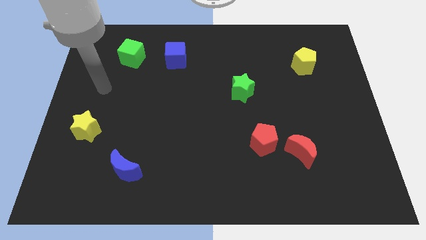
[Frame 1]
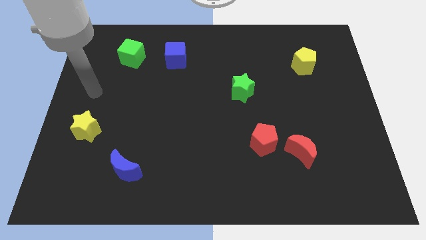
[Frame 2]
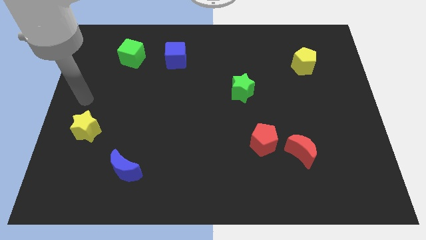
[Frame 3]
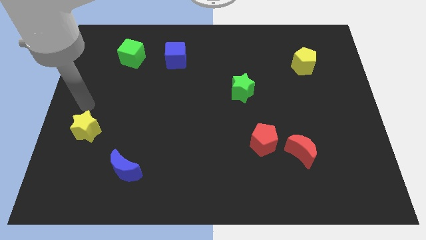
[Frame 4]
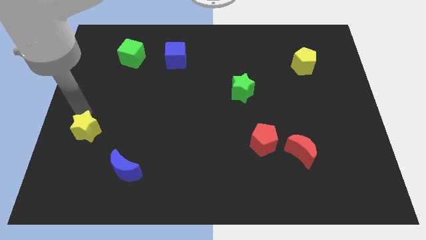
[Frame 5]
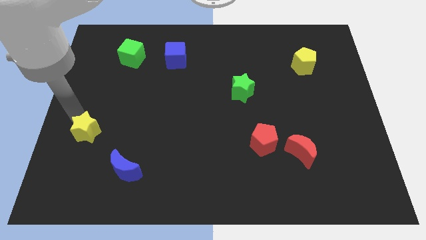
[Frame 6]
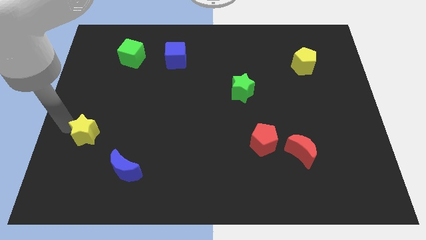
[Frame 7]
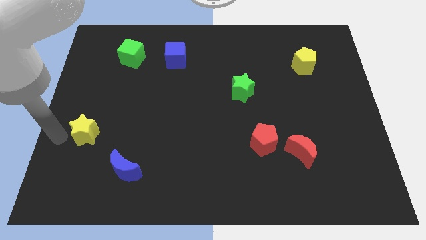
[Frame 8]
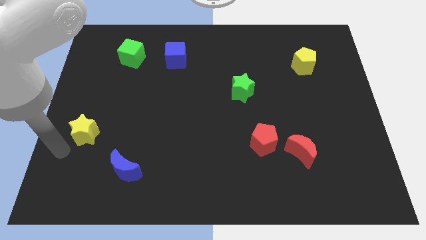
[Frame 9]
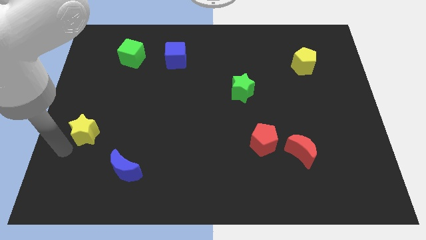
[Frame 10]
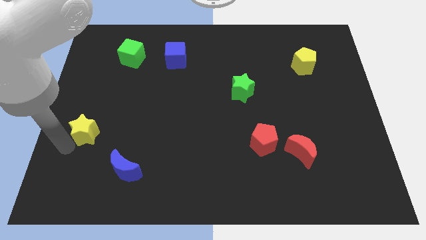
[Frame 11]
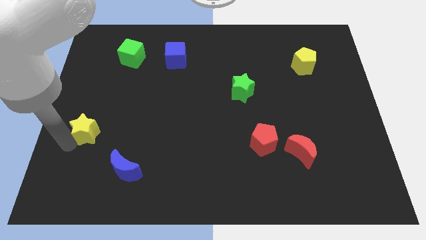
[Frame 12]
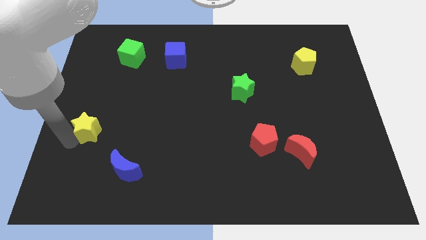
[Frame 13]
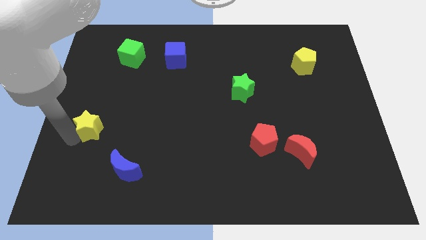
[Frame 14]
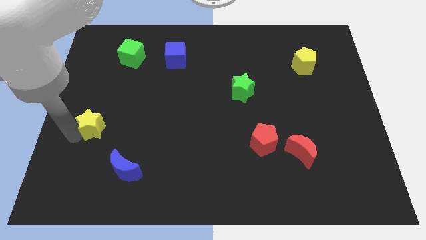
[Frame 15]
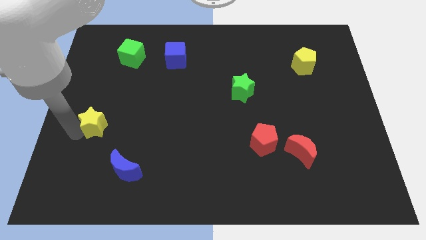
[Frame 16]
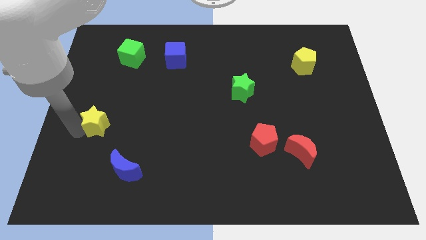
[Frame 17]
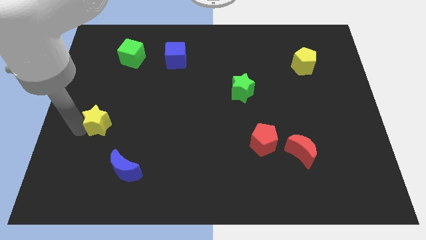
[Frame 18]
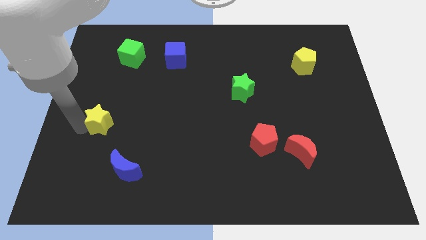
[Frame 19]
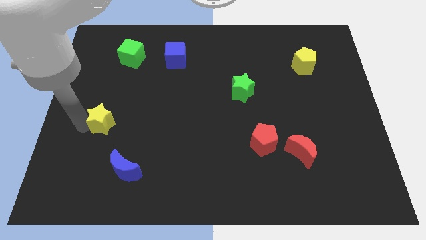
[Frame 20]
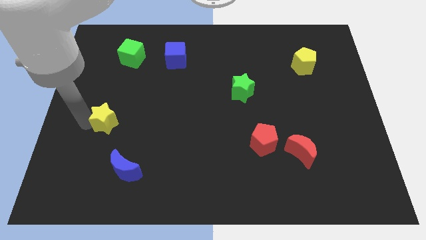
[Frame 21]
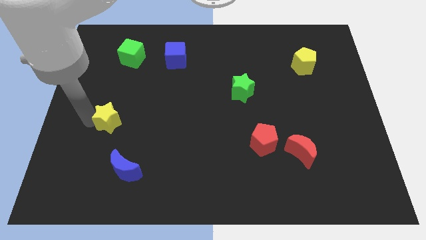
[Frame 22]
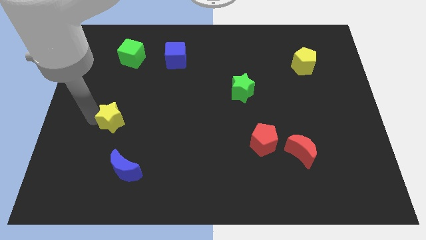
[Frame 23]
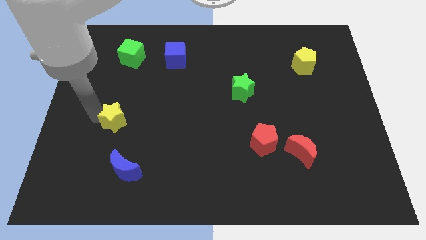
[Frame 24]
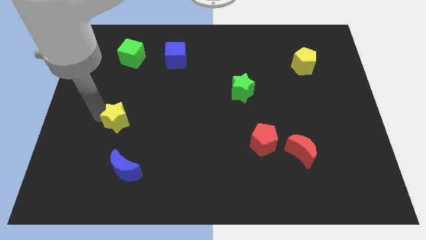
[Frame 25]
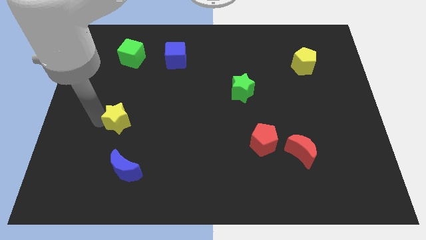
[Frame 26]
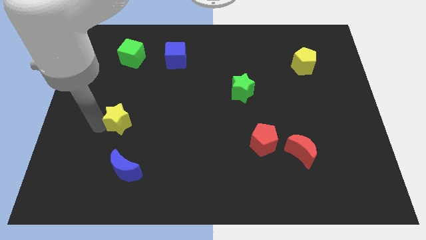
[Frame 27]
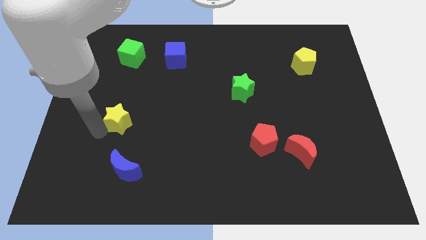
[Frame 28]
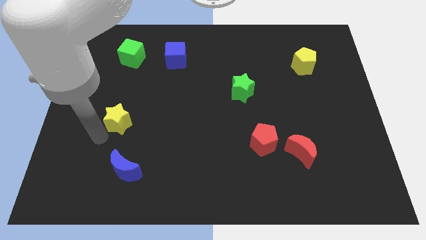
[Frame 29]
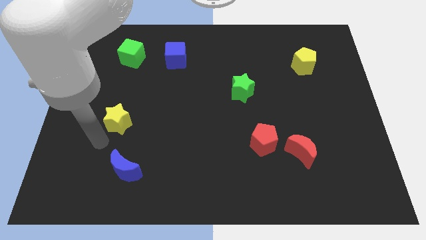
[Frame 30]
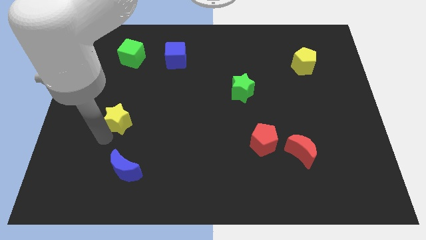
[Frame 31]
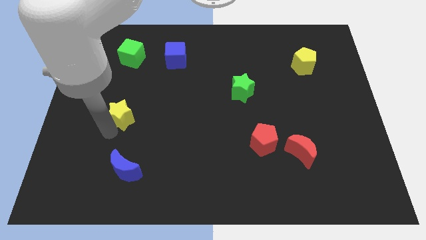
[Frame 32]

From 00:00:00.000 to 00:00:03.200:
push the yellow star somewhat up and to the right diagonally

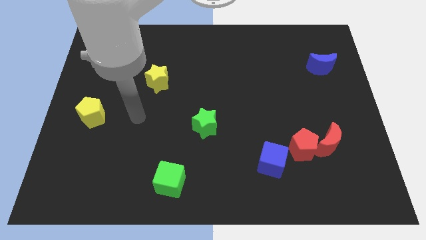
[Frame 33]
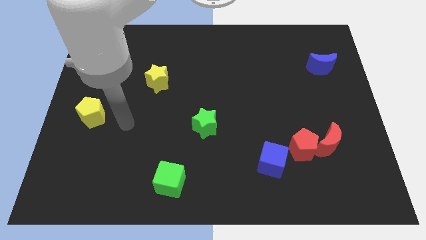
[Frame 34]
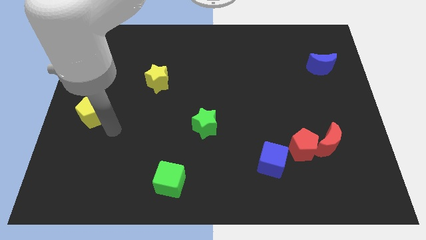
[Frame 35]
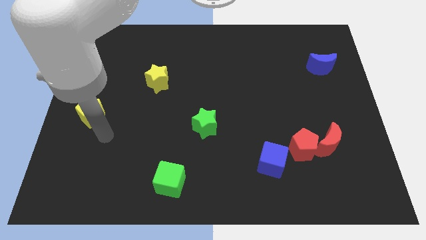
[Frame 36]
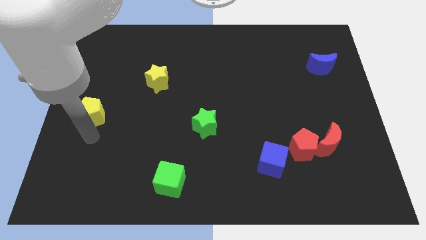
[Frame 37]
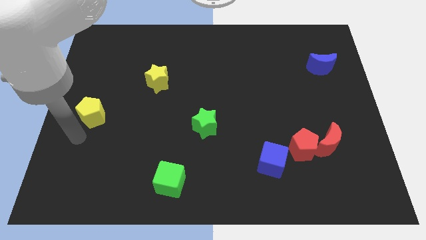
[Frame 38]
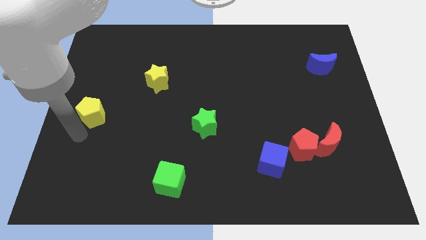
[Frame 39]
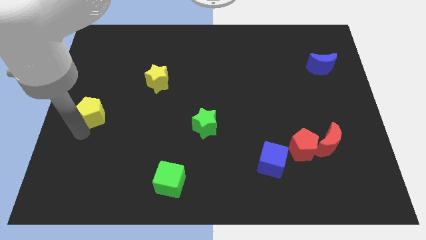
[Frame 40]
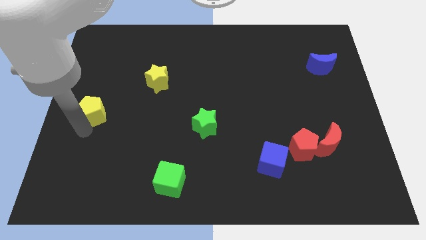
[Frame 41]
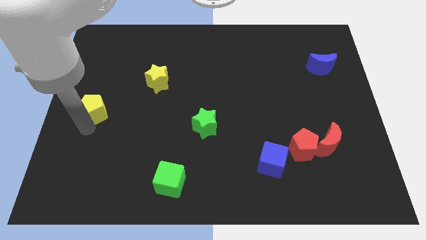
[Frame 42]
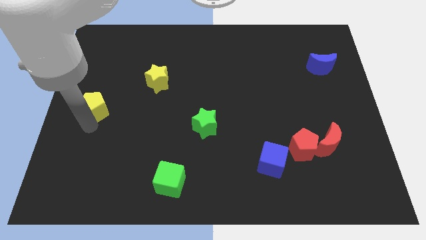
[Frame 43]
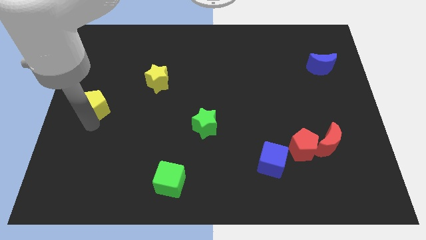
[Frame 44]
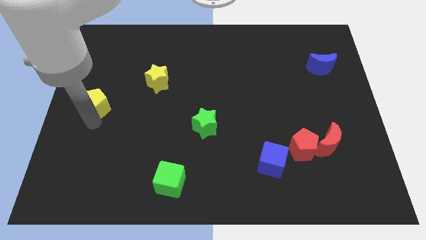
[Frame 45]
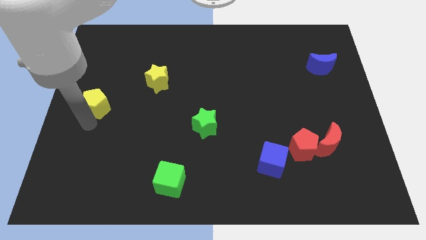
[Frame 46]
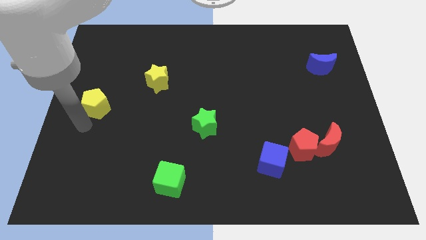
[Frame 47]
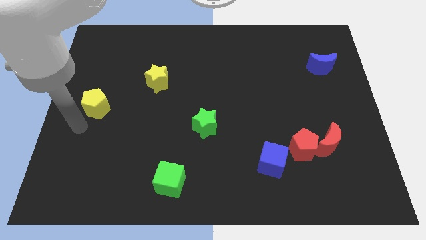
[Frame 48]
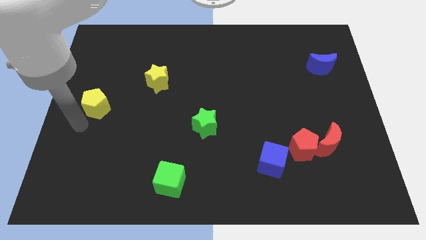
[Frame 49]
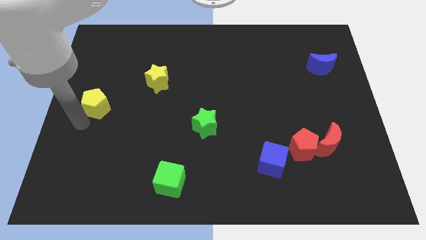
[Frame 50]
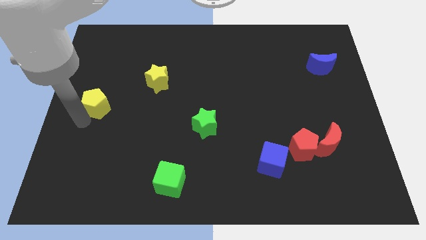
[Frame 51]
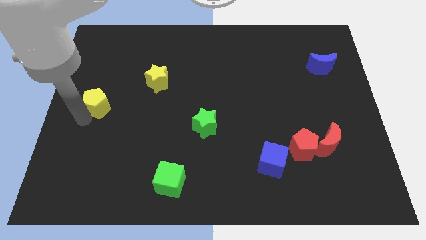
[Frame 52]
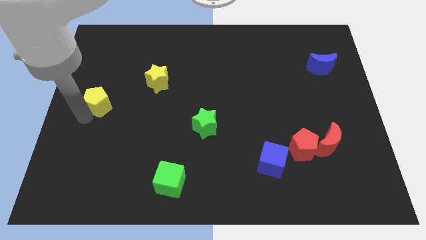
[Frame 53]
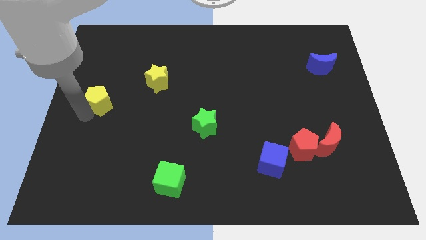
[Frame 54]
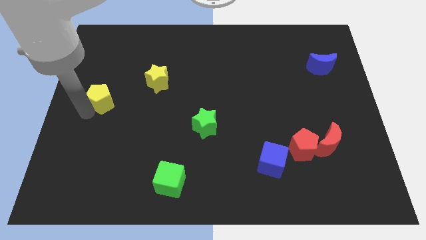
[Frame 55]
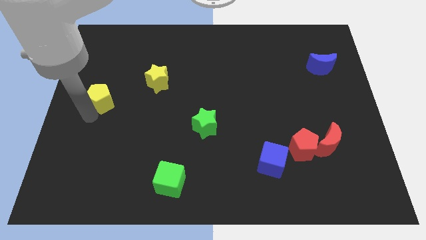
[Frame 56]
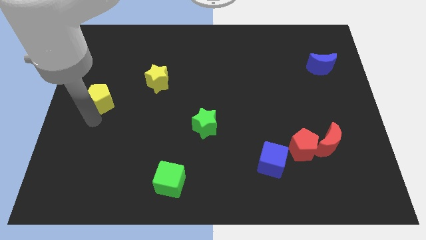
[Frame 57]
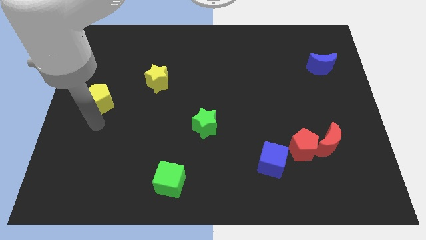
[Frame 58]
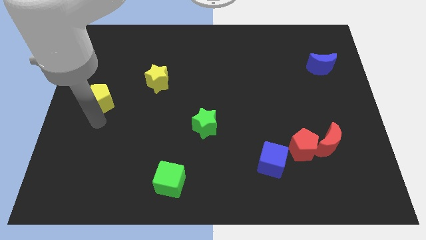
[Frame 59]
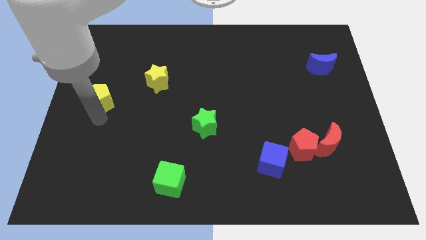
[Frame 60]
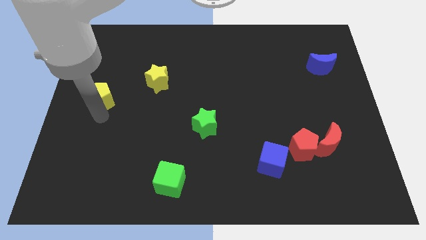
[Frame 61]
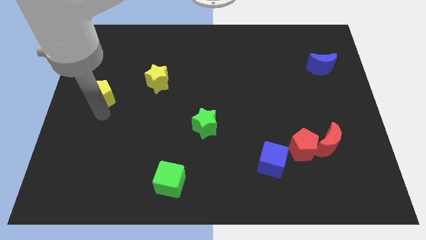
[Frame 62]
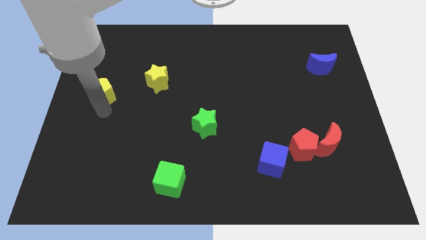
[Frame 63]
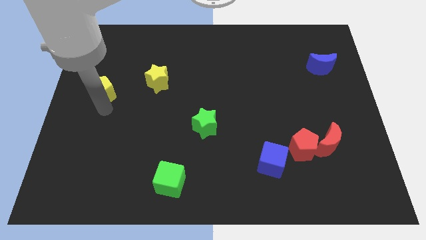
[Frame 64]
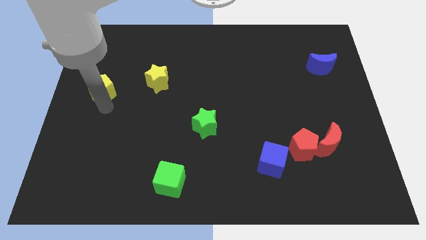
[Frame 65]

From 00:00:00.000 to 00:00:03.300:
push the yellow pentagon up a little bit

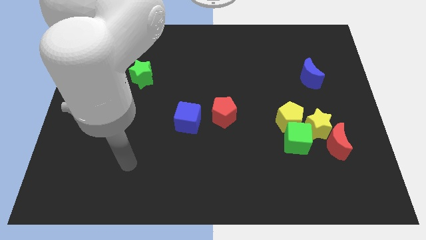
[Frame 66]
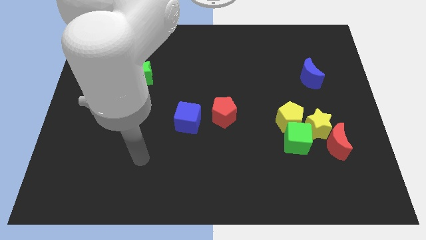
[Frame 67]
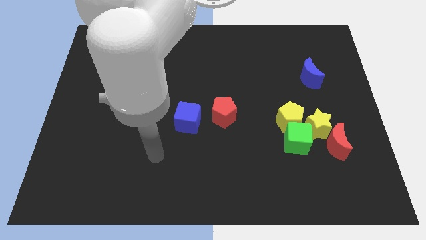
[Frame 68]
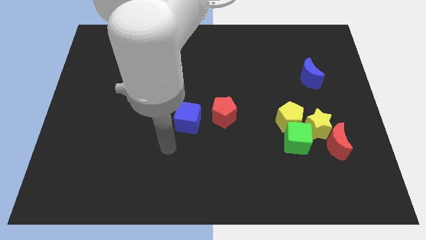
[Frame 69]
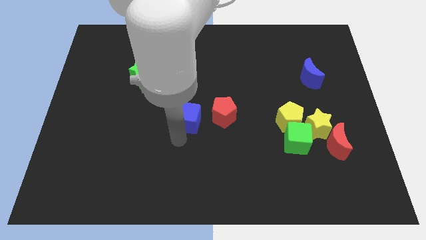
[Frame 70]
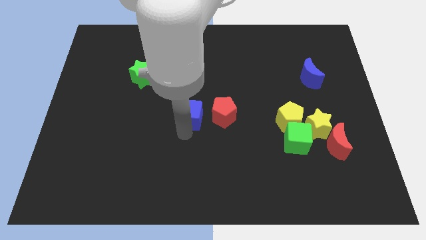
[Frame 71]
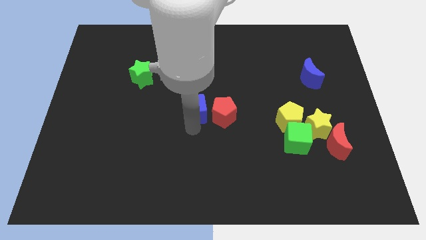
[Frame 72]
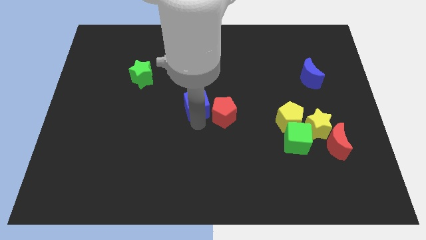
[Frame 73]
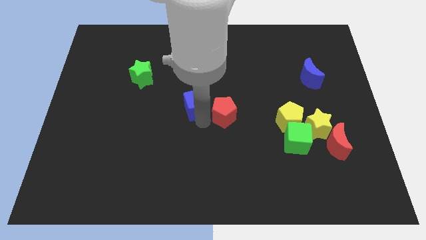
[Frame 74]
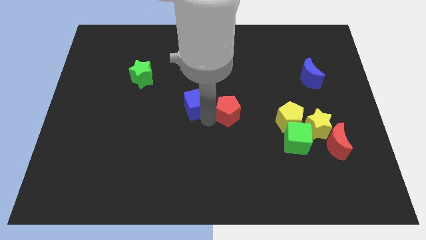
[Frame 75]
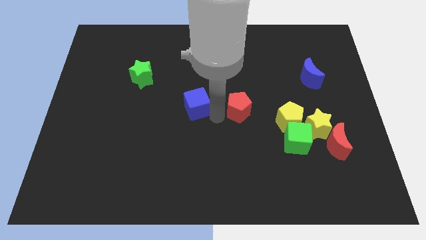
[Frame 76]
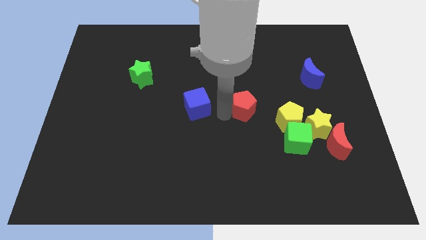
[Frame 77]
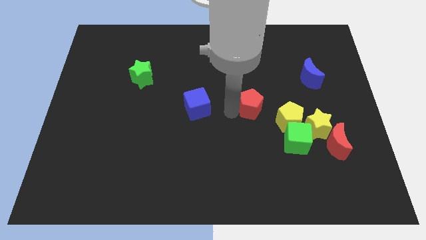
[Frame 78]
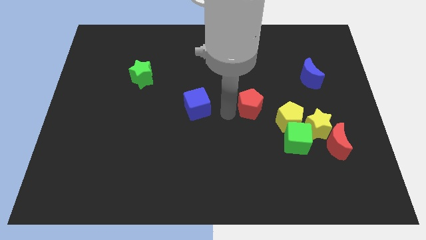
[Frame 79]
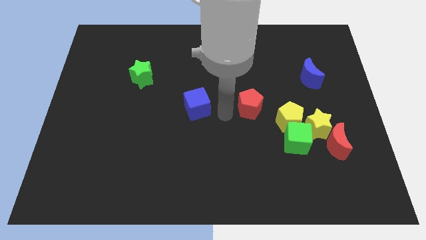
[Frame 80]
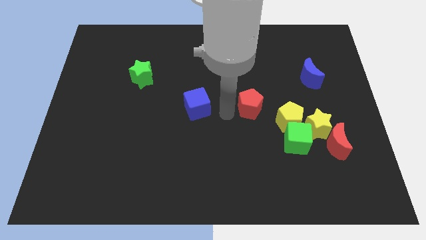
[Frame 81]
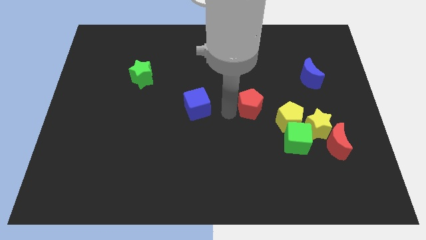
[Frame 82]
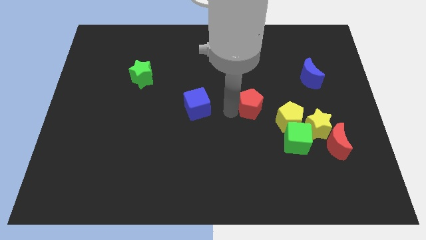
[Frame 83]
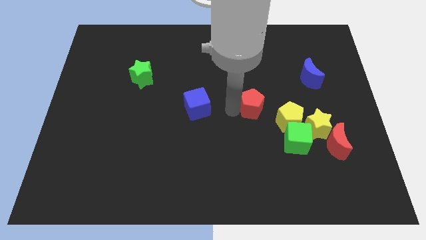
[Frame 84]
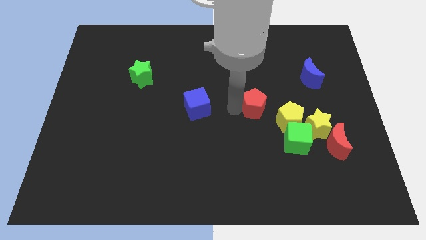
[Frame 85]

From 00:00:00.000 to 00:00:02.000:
slightly slide the red pentagon right
